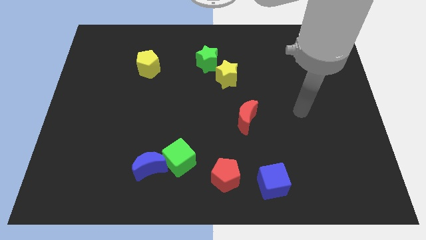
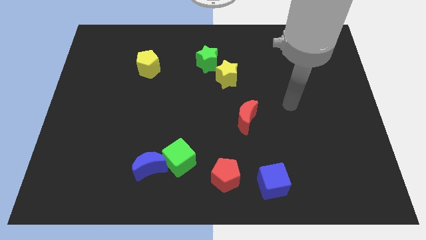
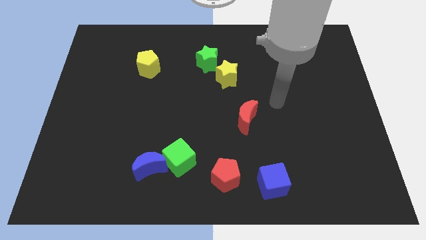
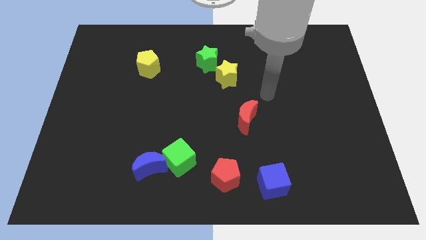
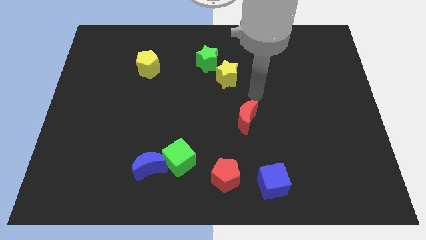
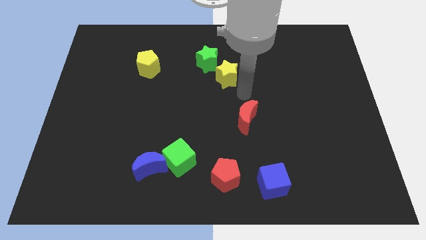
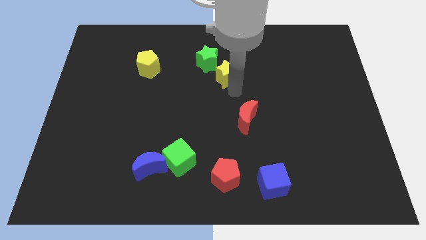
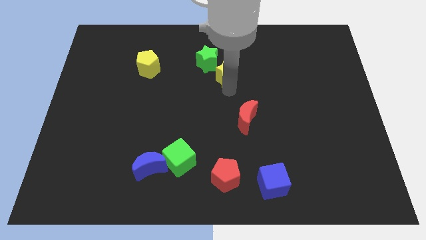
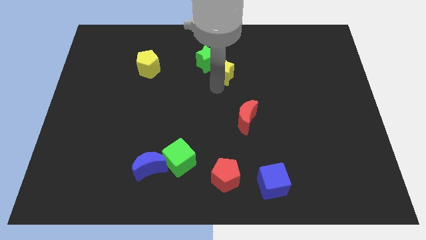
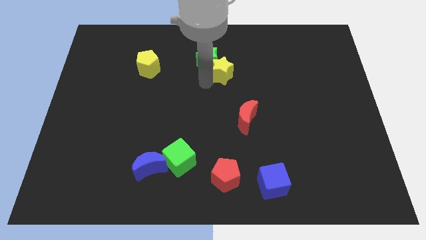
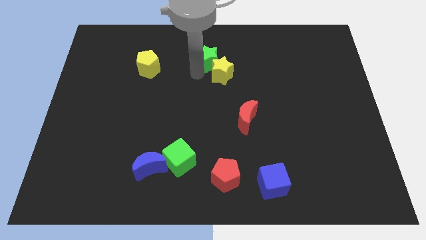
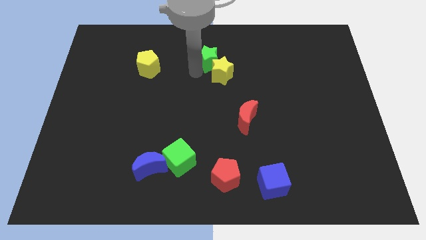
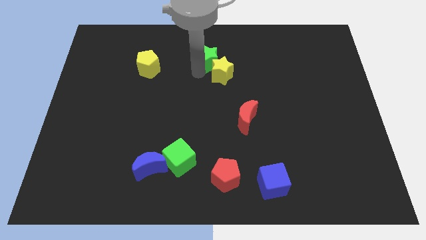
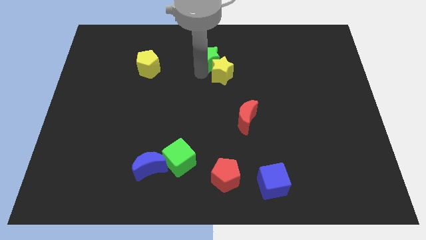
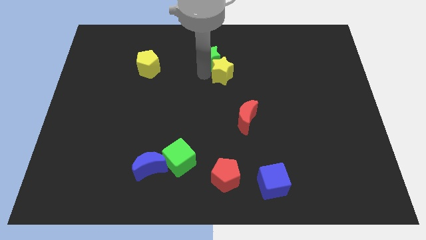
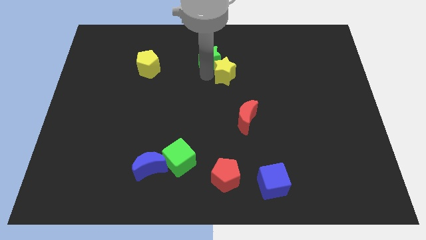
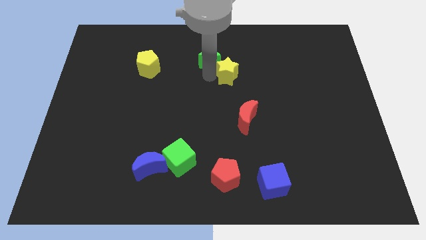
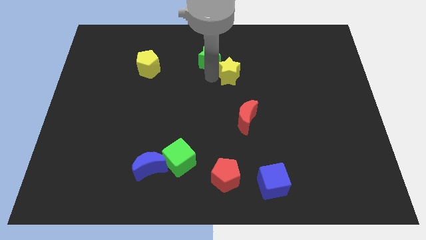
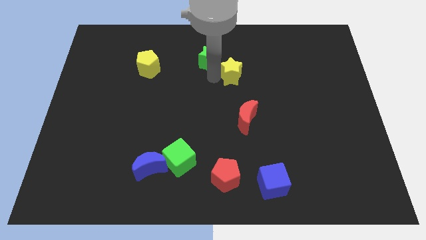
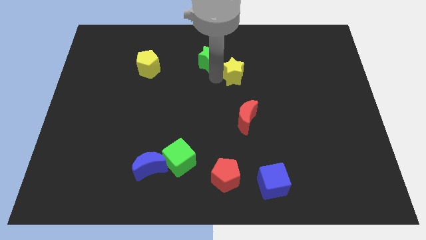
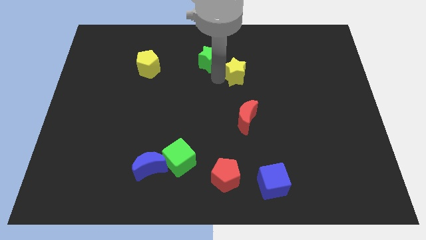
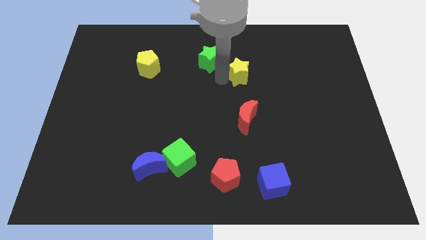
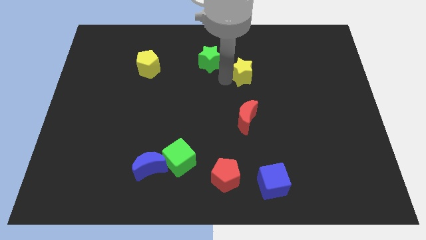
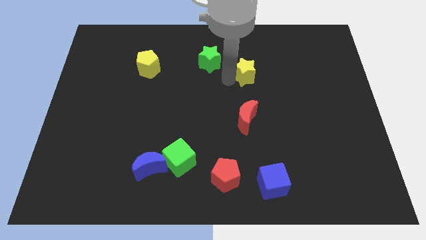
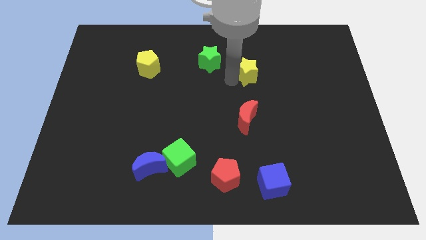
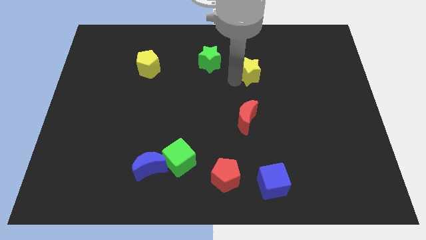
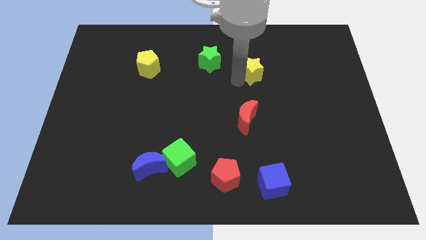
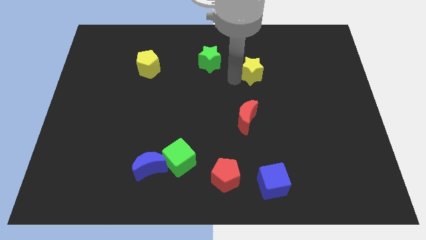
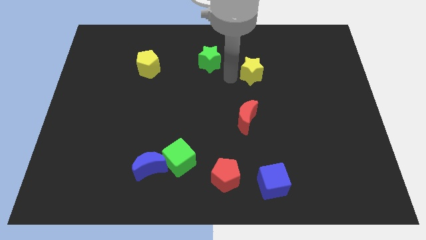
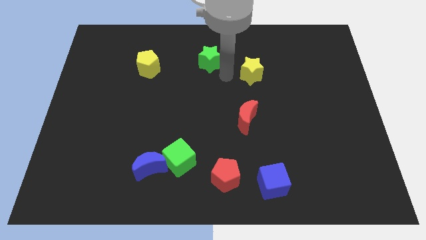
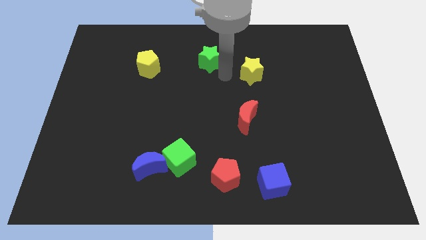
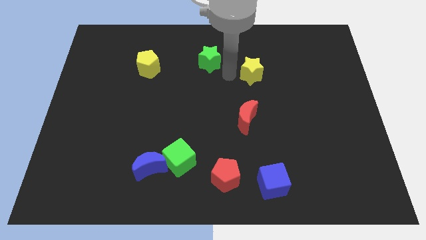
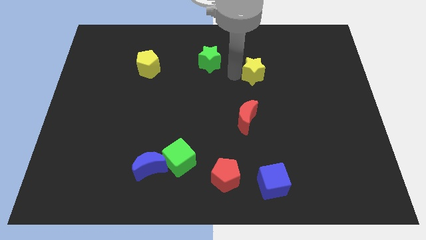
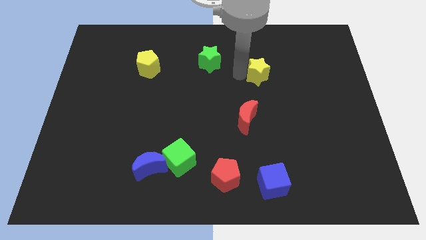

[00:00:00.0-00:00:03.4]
slightly move the yellow star to the right

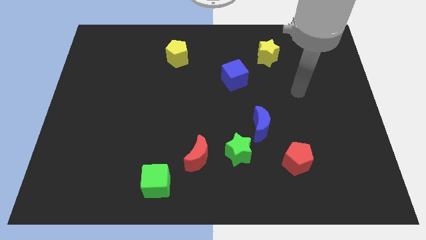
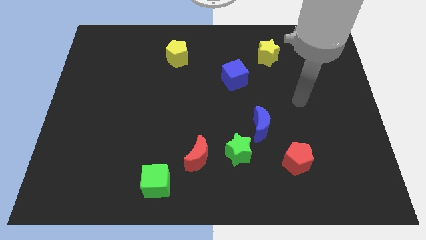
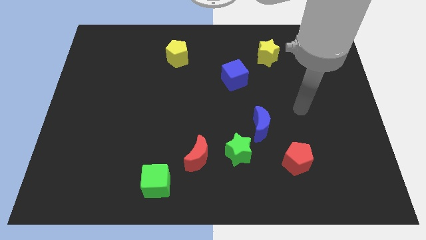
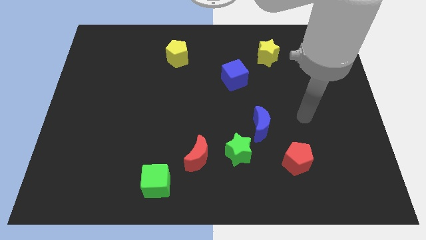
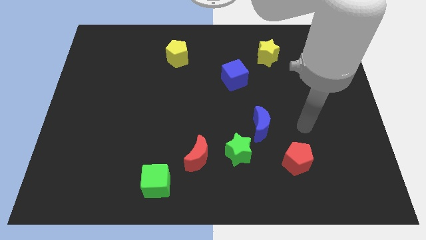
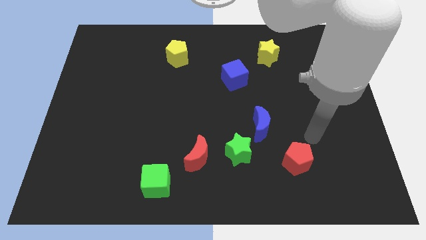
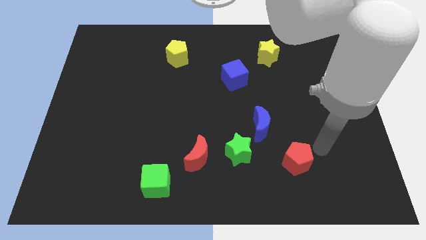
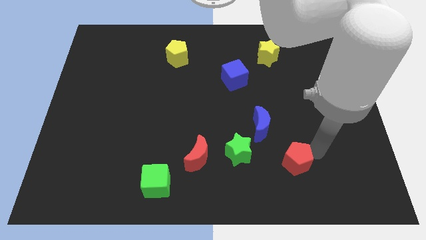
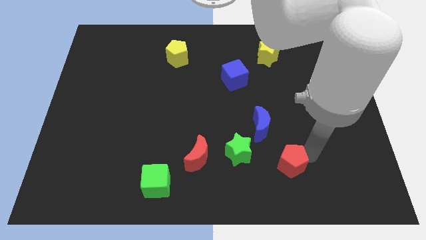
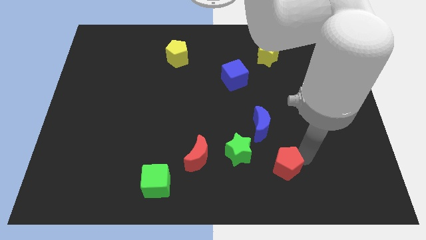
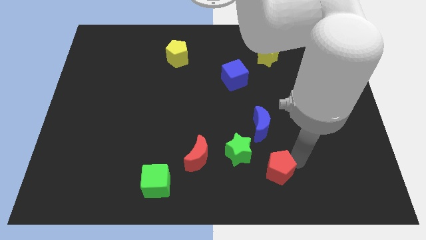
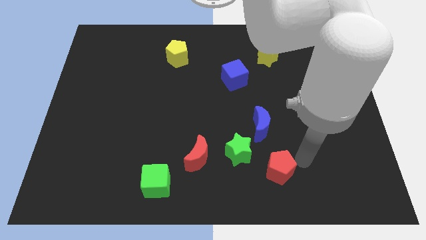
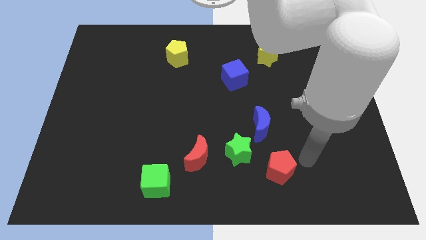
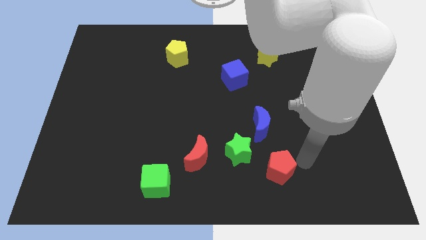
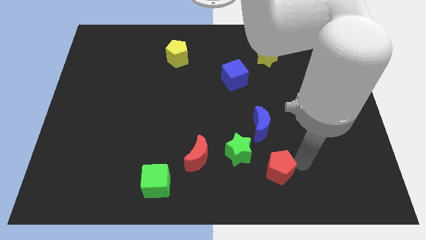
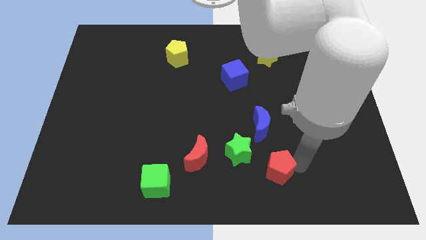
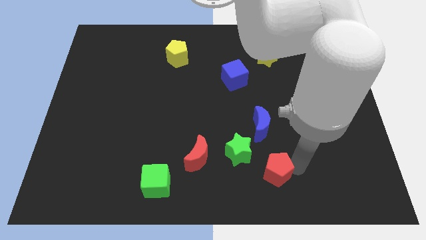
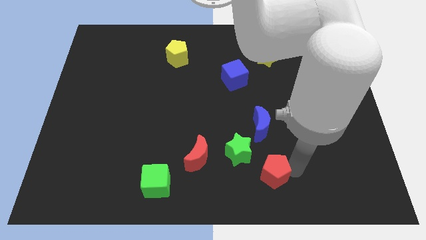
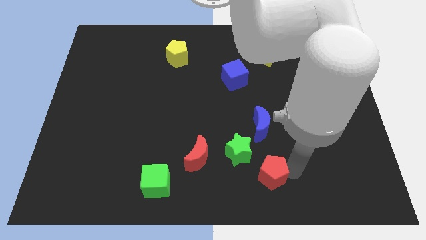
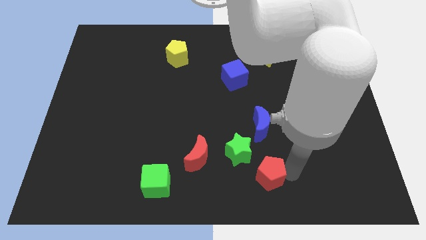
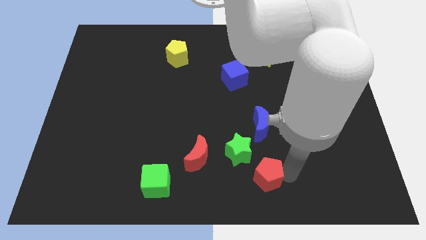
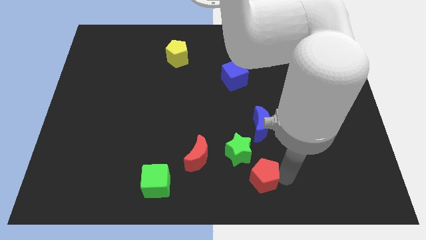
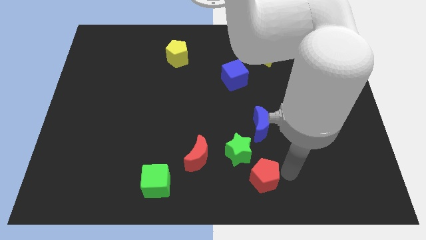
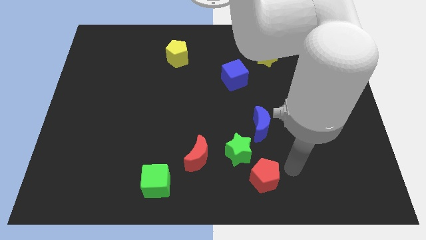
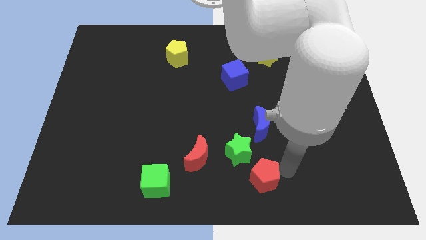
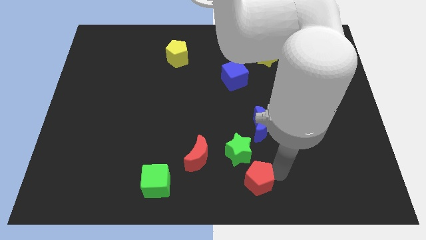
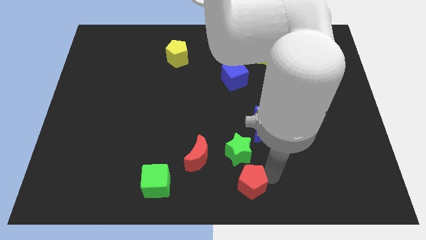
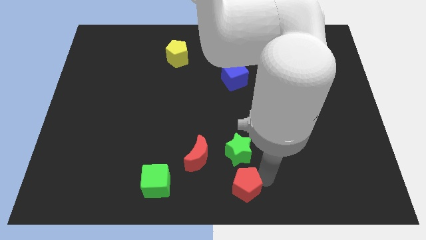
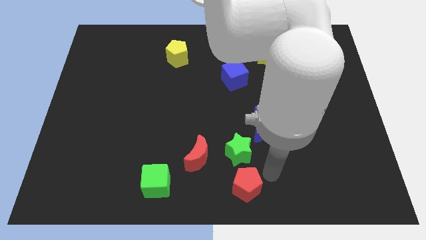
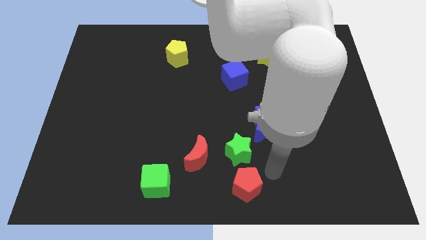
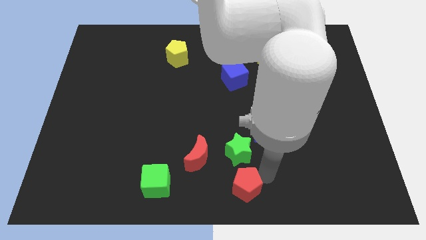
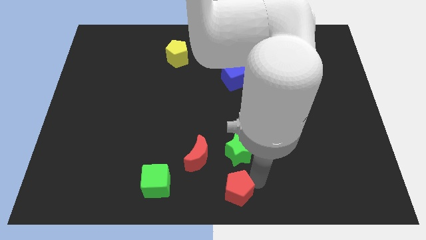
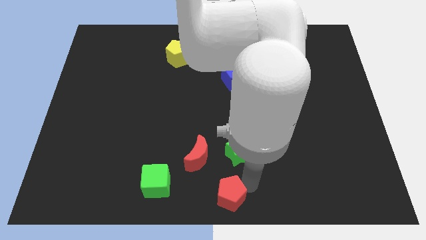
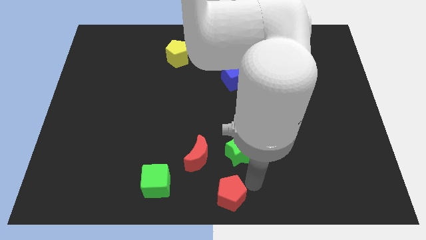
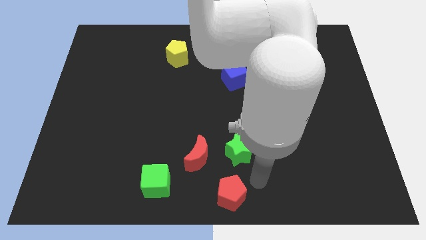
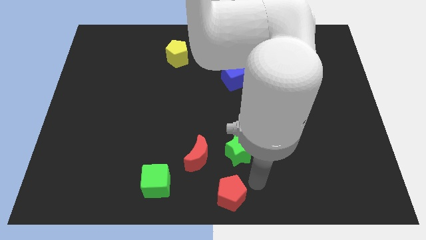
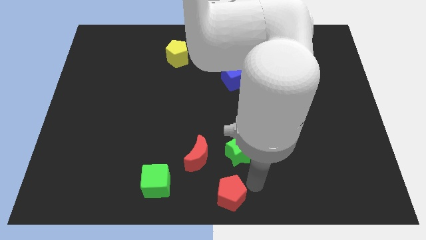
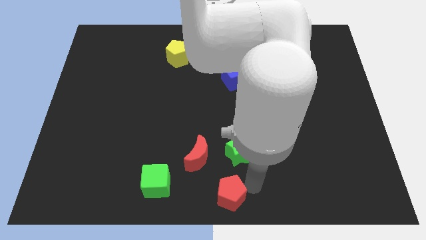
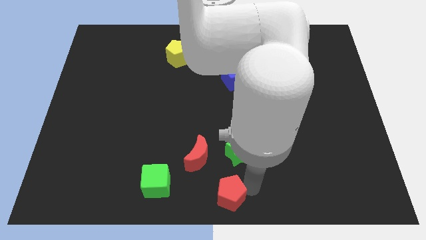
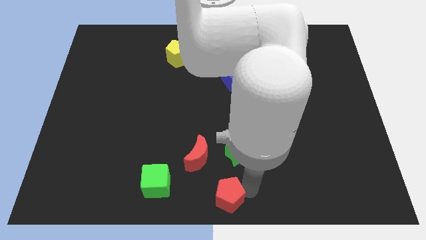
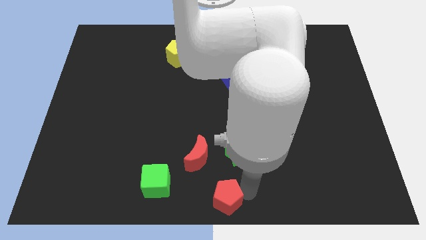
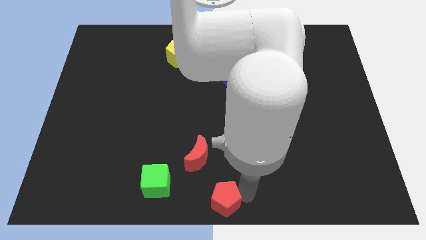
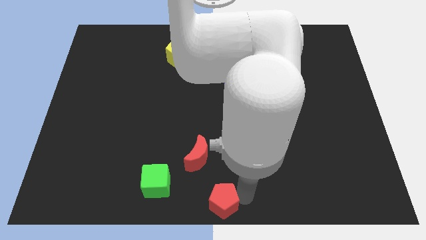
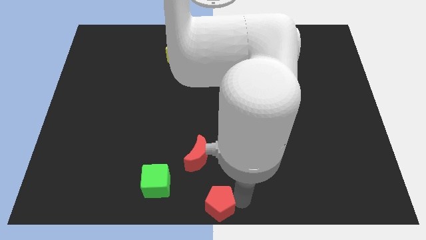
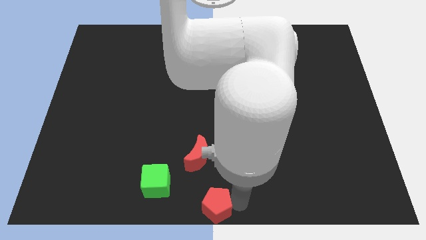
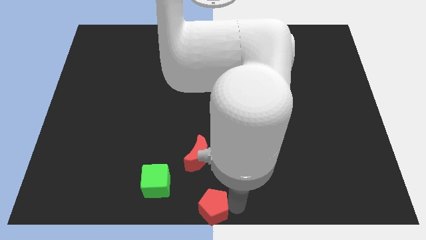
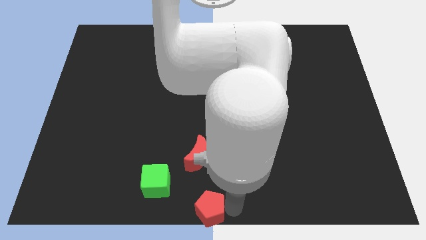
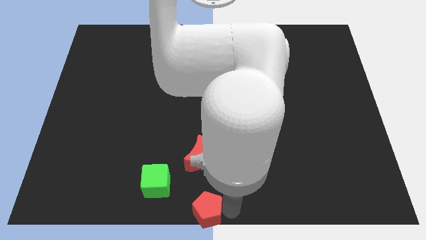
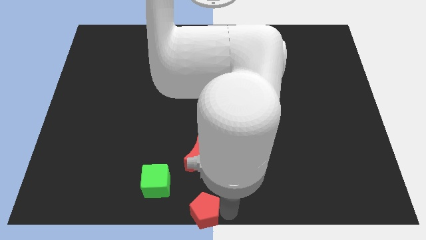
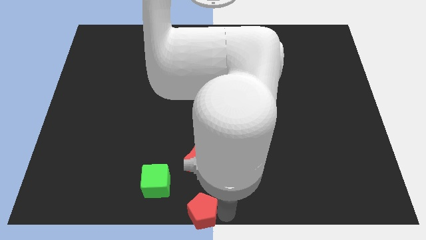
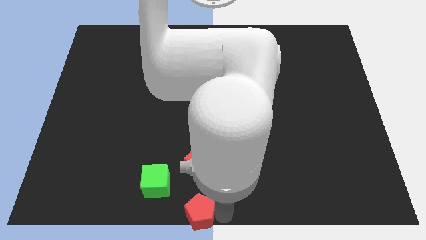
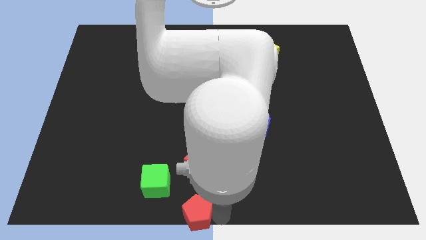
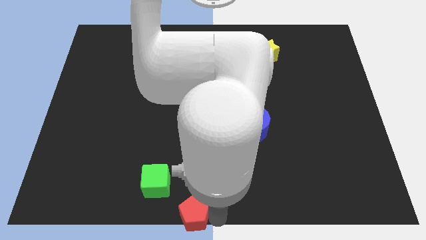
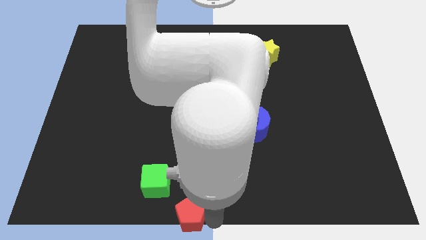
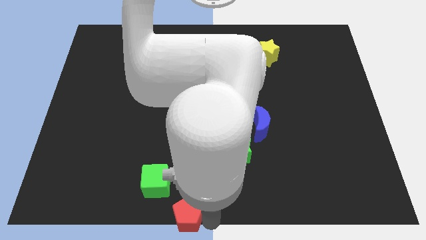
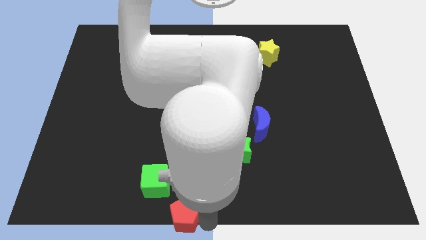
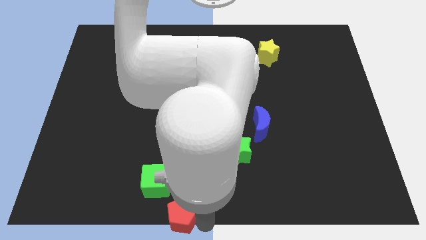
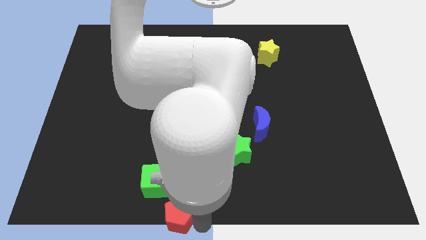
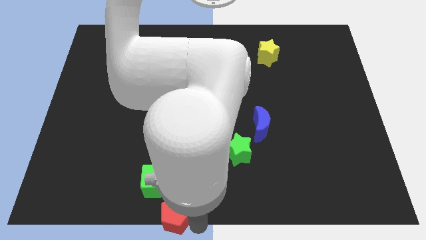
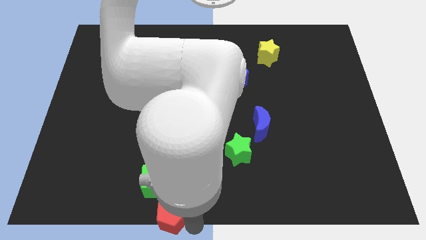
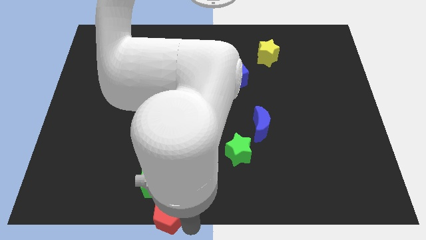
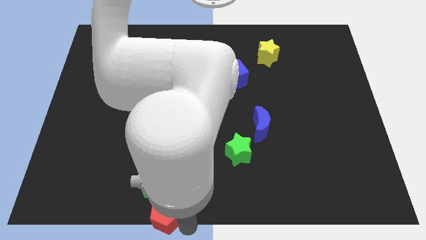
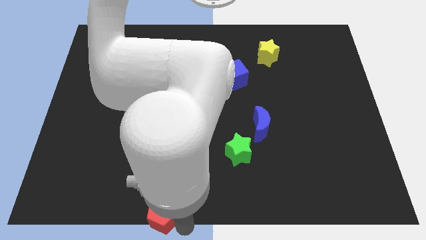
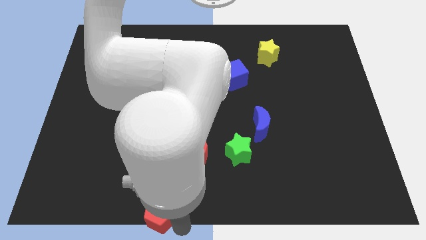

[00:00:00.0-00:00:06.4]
move the red pentagon left
